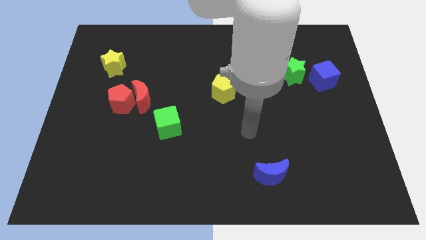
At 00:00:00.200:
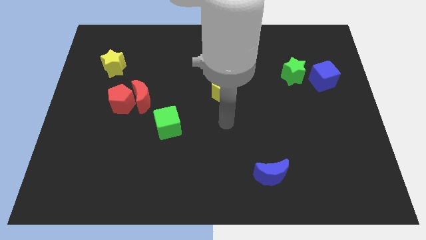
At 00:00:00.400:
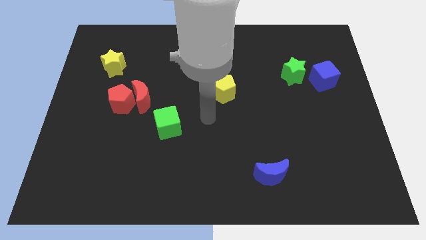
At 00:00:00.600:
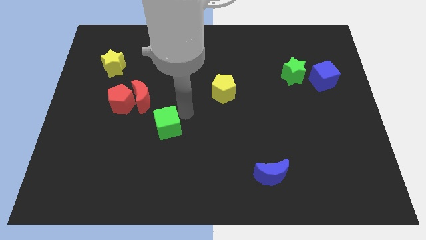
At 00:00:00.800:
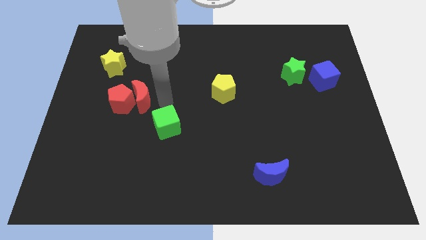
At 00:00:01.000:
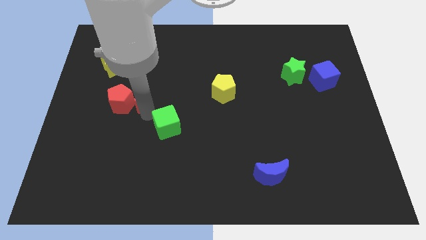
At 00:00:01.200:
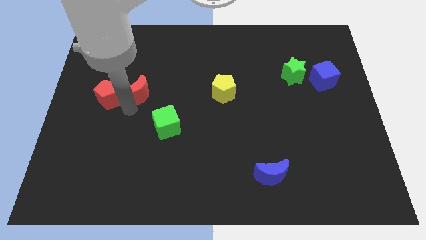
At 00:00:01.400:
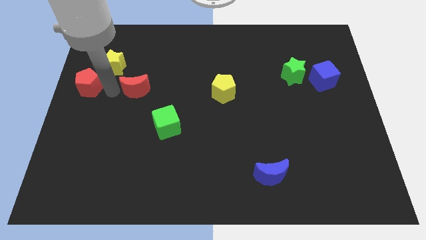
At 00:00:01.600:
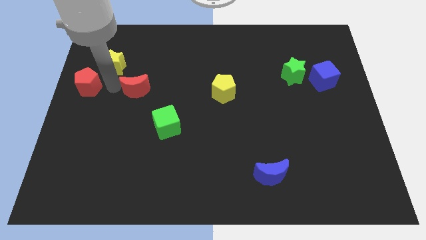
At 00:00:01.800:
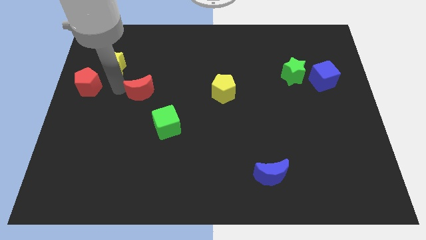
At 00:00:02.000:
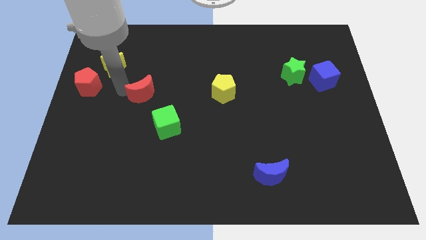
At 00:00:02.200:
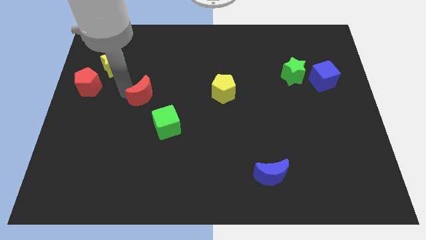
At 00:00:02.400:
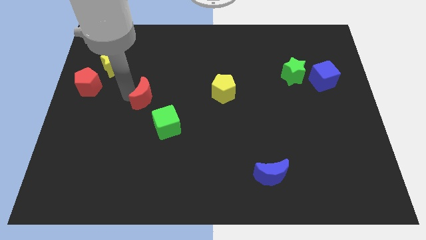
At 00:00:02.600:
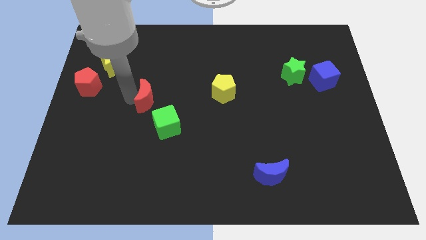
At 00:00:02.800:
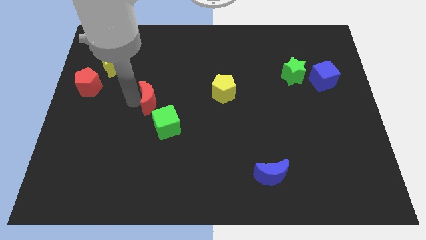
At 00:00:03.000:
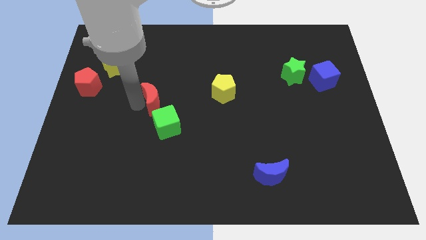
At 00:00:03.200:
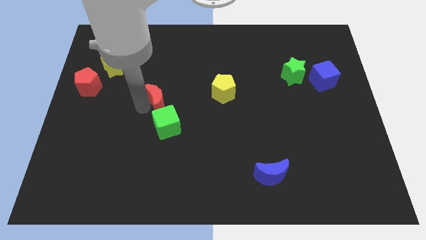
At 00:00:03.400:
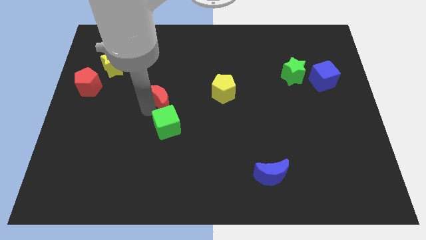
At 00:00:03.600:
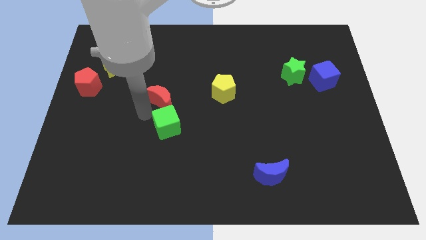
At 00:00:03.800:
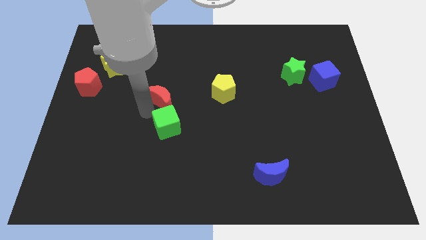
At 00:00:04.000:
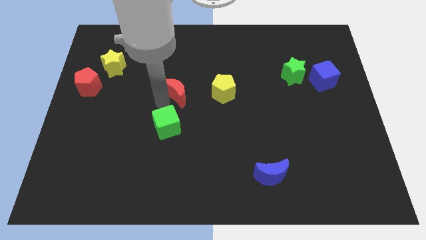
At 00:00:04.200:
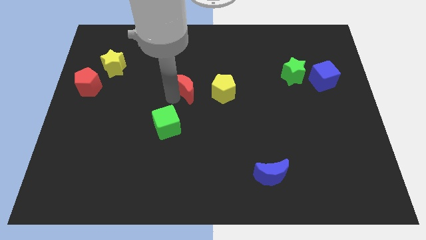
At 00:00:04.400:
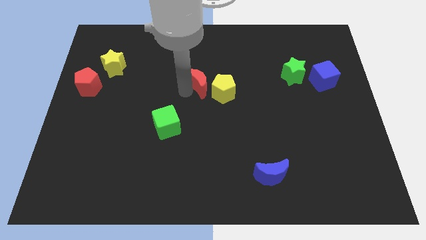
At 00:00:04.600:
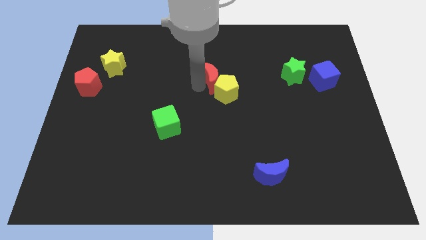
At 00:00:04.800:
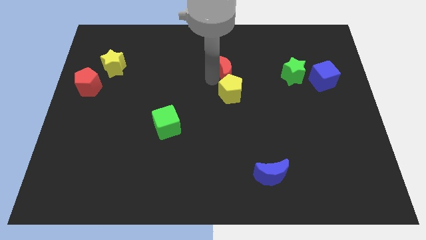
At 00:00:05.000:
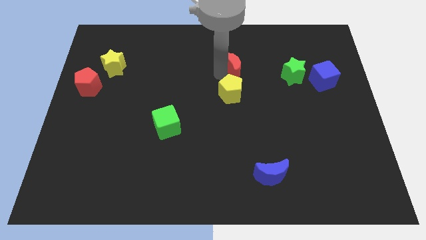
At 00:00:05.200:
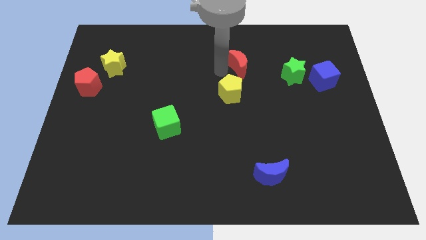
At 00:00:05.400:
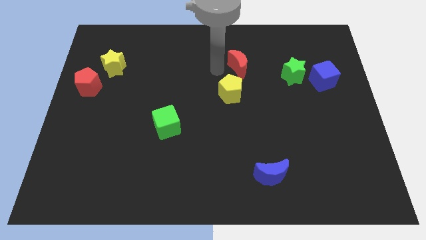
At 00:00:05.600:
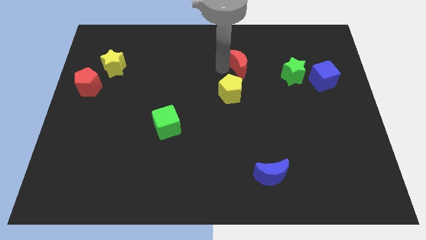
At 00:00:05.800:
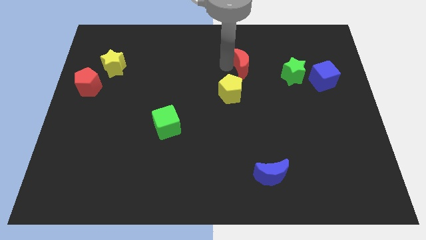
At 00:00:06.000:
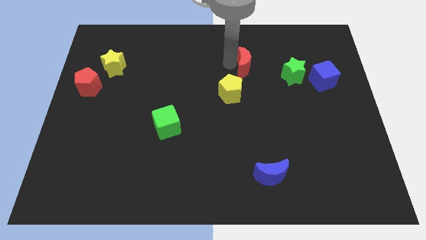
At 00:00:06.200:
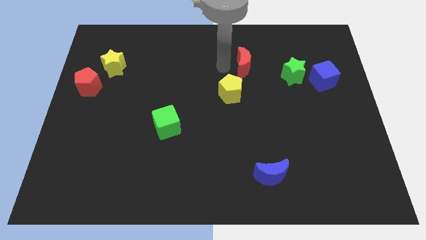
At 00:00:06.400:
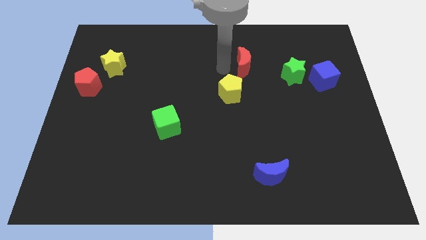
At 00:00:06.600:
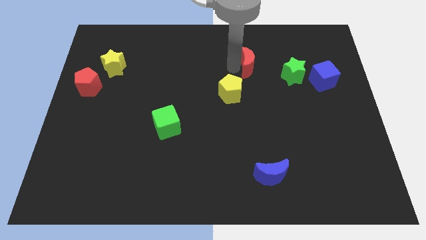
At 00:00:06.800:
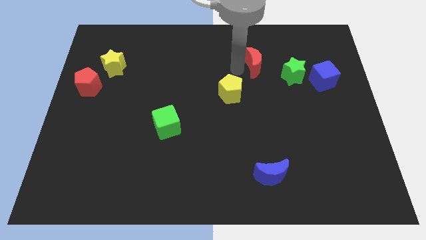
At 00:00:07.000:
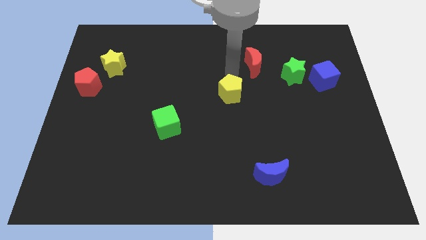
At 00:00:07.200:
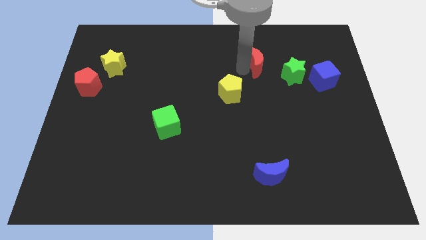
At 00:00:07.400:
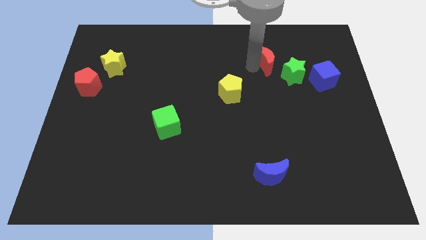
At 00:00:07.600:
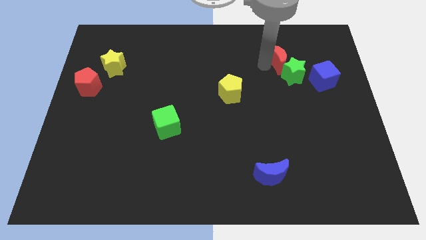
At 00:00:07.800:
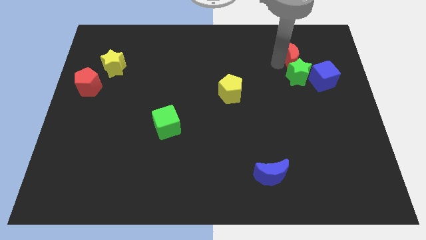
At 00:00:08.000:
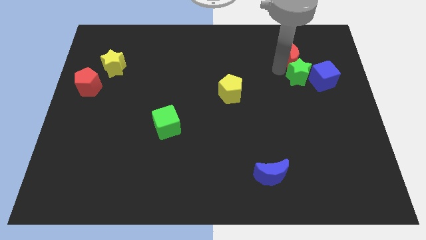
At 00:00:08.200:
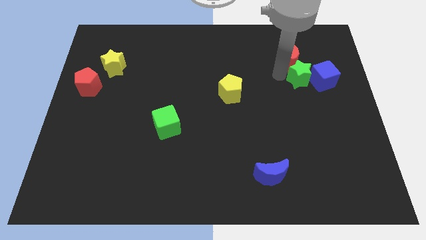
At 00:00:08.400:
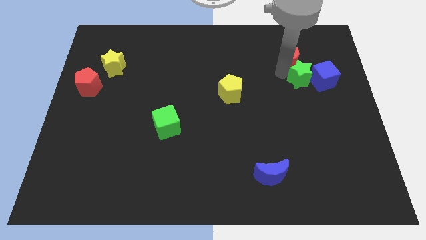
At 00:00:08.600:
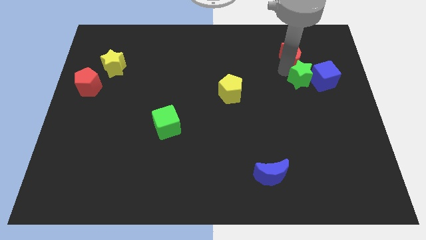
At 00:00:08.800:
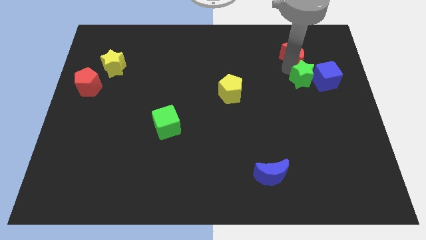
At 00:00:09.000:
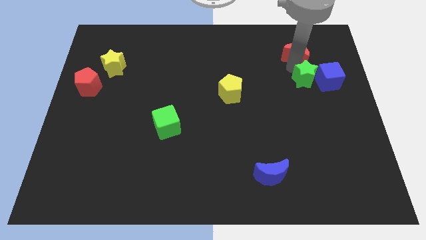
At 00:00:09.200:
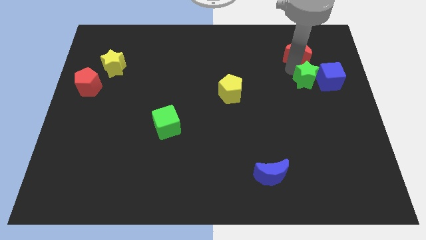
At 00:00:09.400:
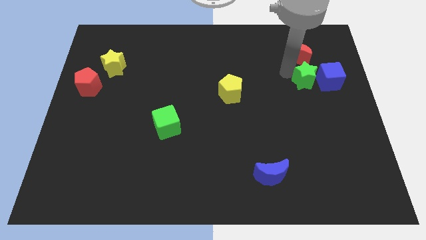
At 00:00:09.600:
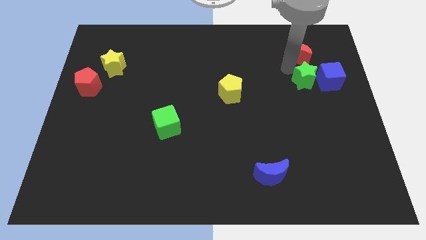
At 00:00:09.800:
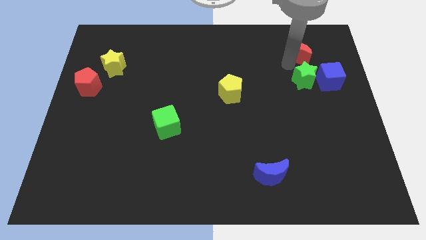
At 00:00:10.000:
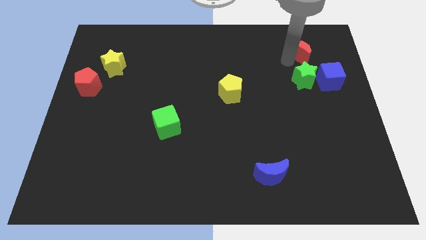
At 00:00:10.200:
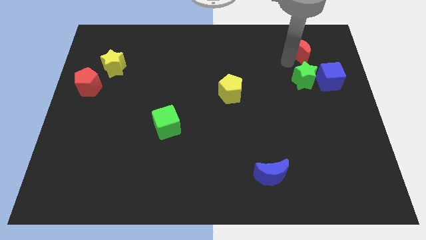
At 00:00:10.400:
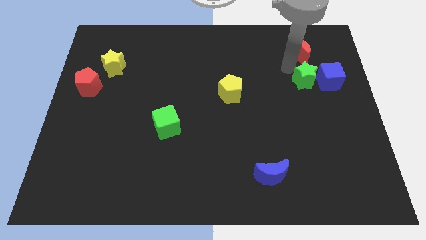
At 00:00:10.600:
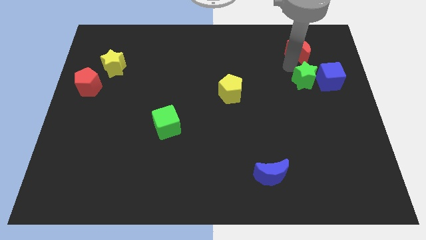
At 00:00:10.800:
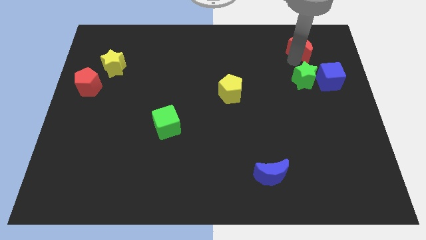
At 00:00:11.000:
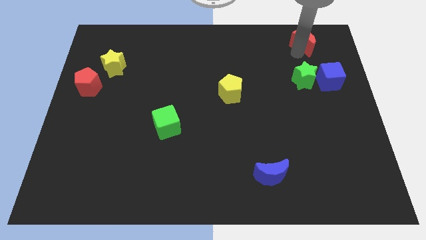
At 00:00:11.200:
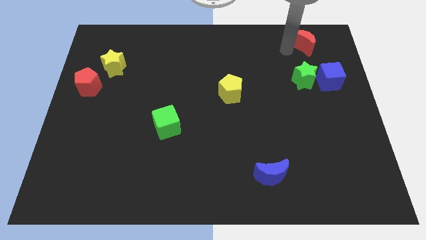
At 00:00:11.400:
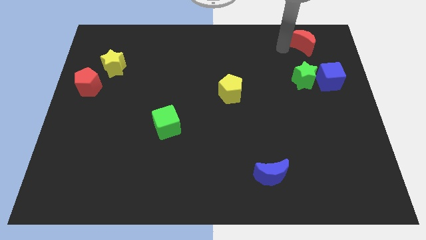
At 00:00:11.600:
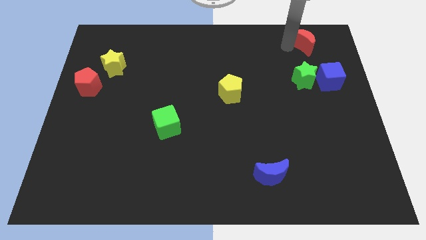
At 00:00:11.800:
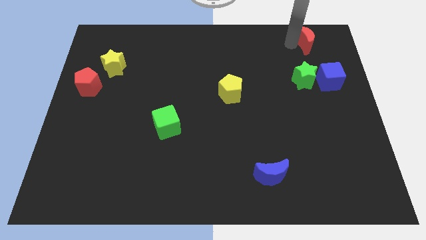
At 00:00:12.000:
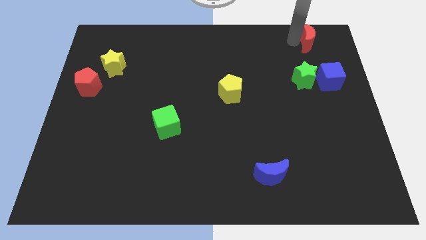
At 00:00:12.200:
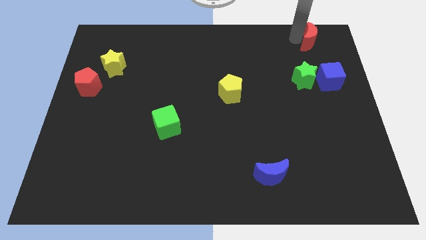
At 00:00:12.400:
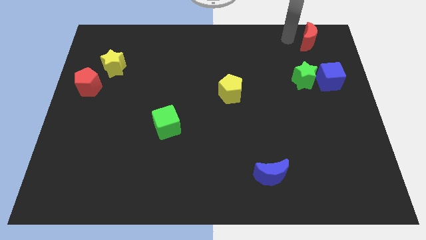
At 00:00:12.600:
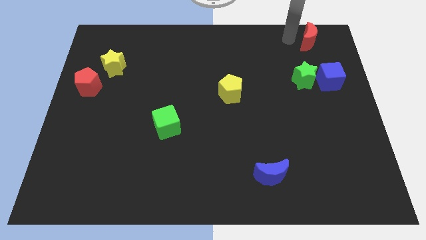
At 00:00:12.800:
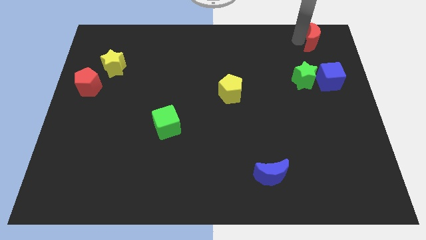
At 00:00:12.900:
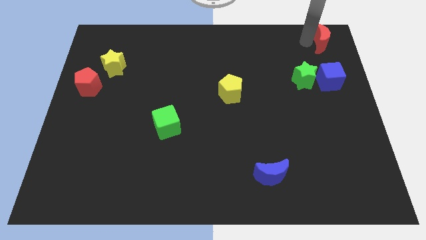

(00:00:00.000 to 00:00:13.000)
move the red moon to the top right of the board
